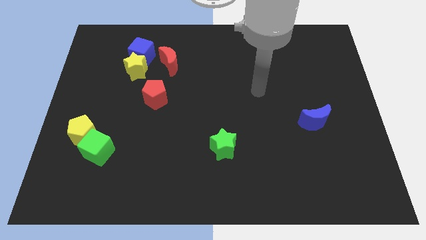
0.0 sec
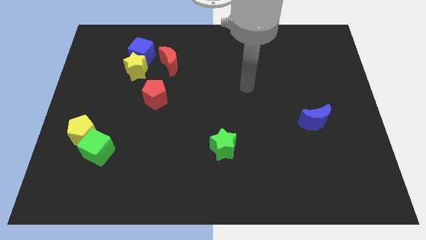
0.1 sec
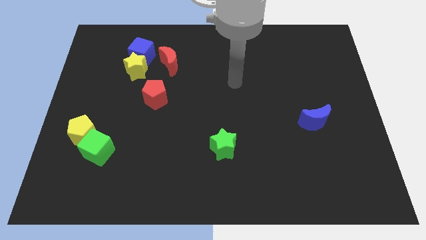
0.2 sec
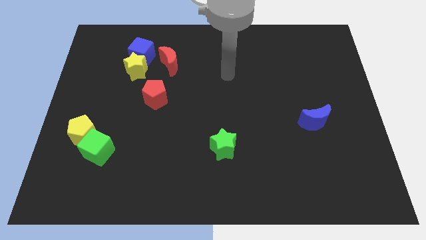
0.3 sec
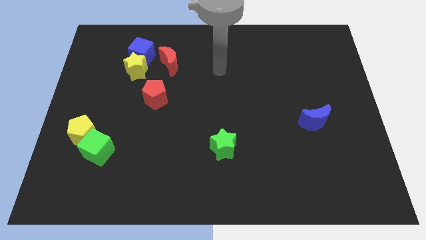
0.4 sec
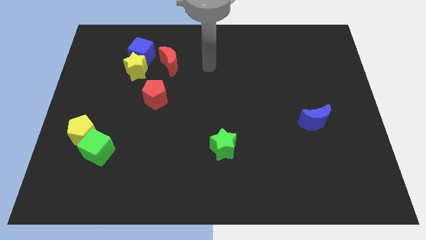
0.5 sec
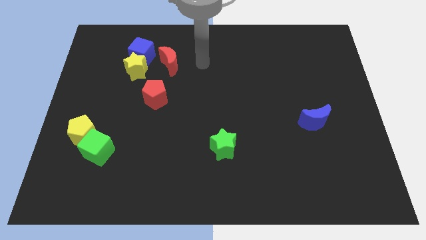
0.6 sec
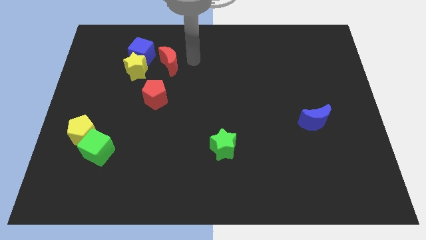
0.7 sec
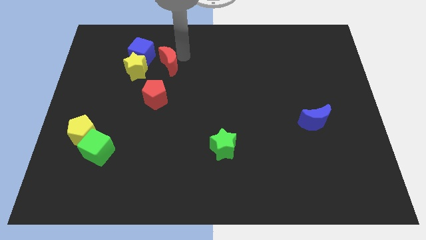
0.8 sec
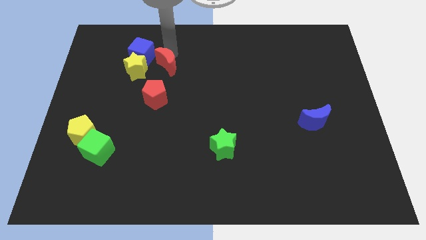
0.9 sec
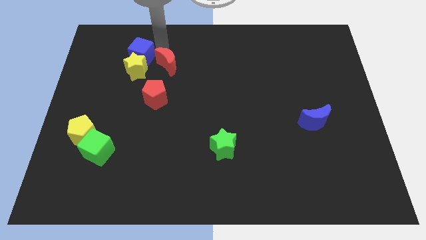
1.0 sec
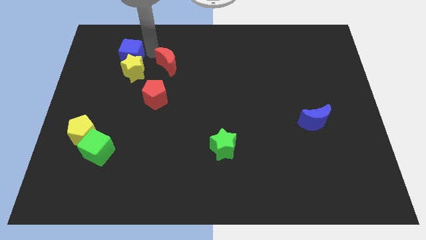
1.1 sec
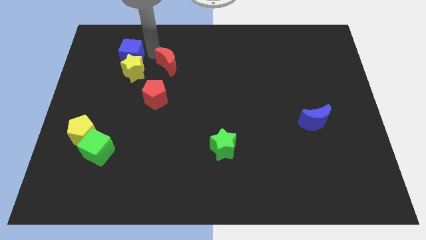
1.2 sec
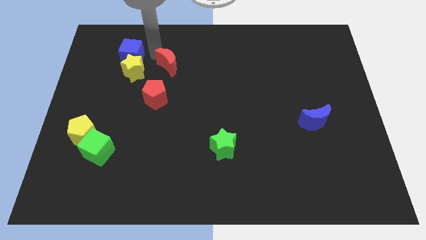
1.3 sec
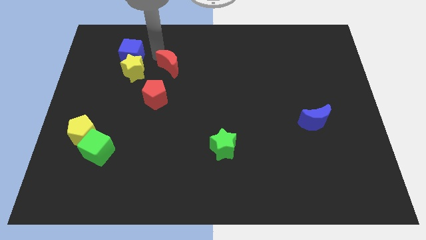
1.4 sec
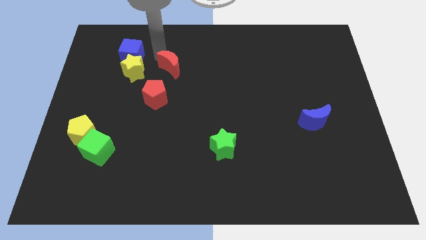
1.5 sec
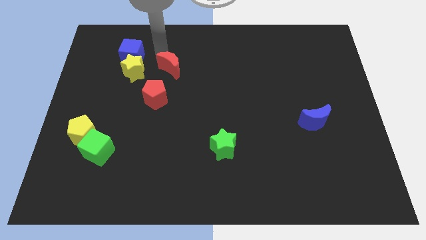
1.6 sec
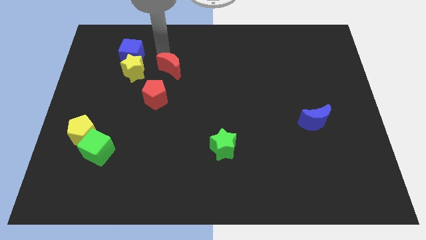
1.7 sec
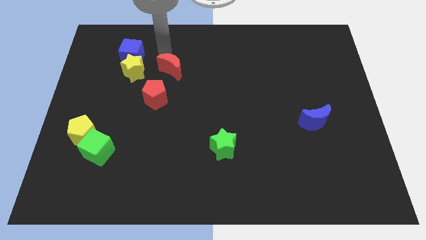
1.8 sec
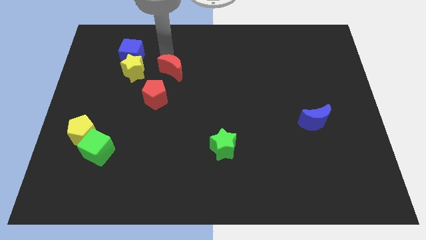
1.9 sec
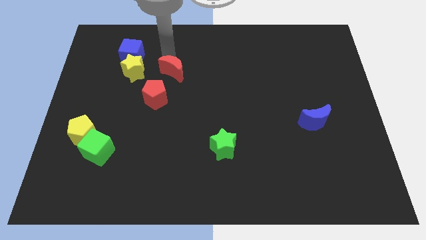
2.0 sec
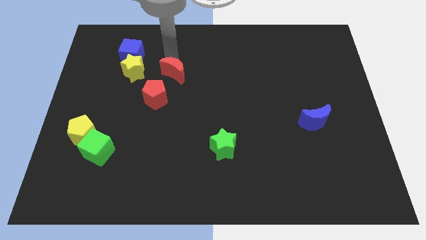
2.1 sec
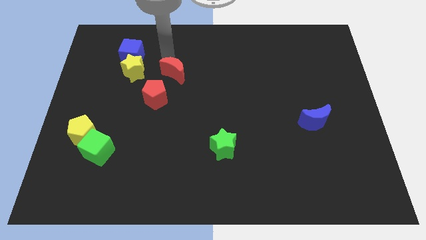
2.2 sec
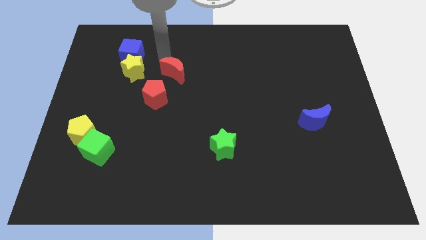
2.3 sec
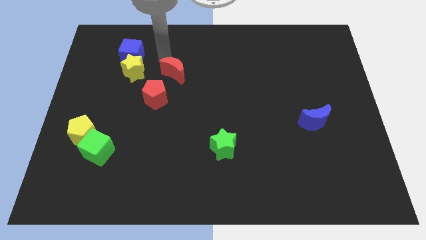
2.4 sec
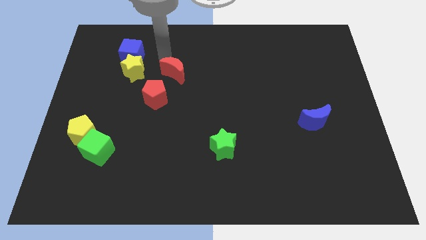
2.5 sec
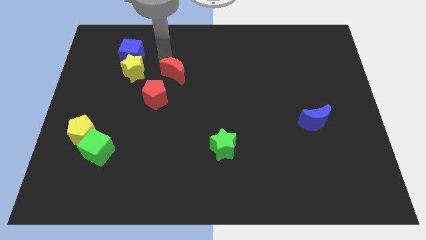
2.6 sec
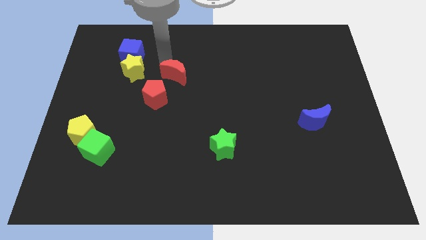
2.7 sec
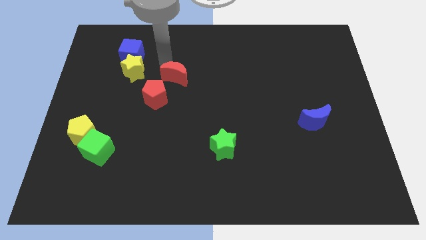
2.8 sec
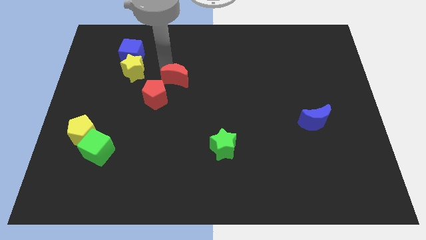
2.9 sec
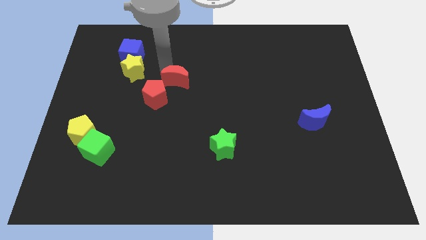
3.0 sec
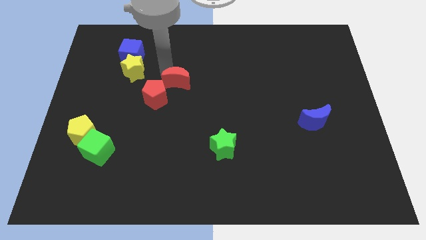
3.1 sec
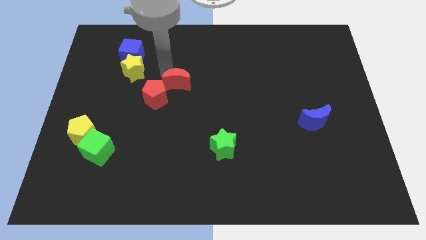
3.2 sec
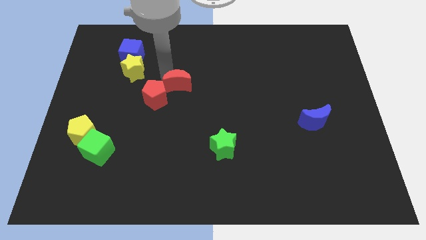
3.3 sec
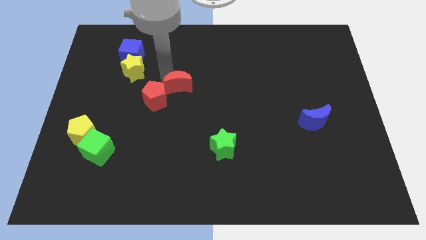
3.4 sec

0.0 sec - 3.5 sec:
slightly move the red moon downwards and then to the right

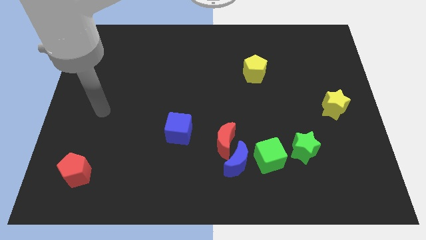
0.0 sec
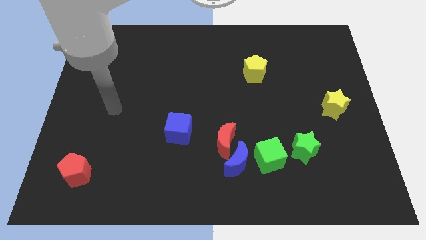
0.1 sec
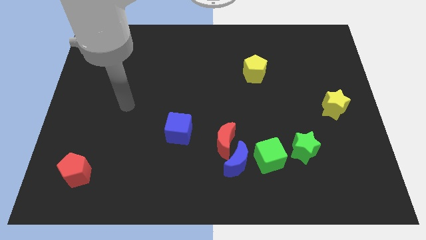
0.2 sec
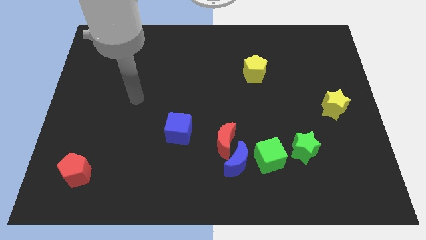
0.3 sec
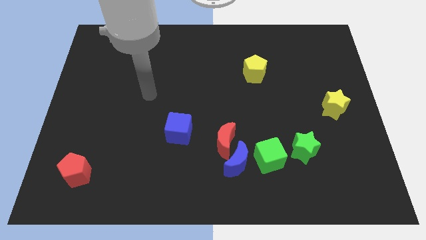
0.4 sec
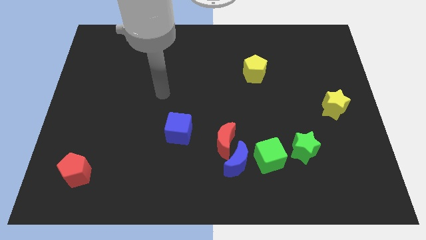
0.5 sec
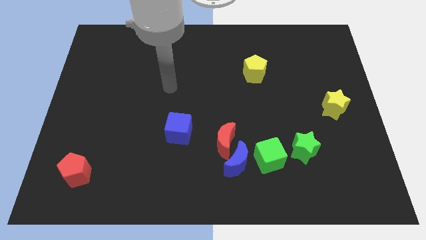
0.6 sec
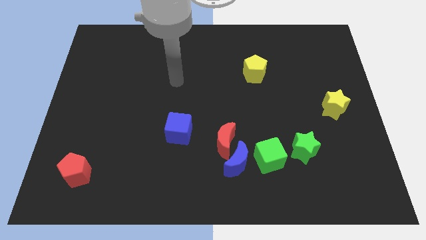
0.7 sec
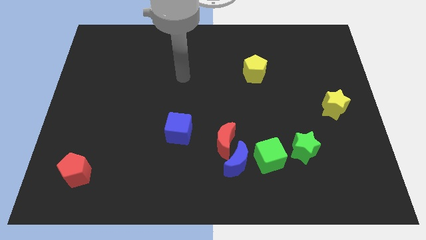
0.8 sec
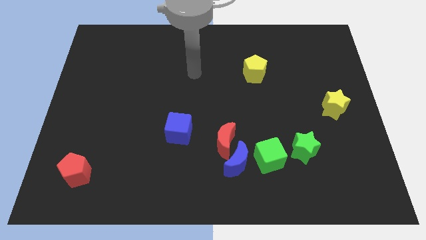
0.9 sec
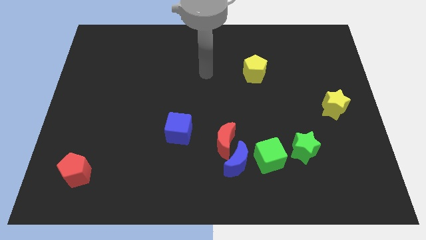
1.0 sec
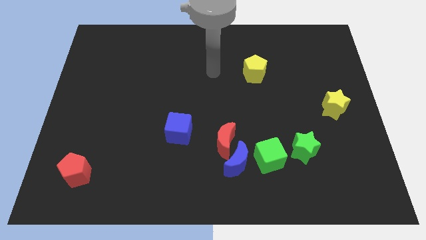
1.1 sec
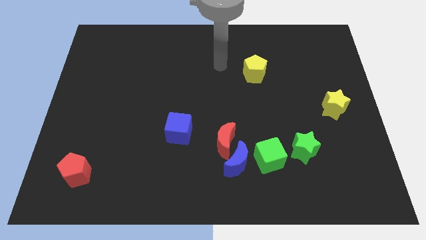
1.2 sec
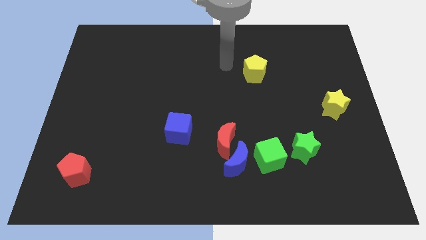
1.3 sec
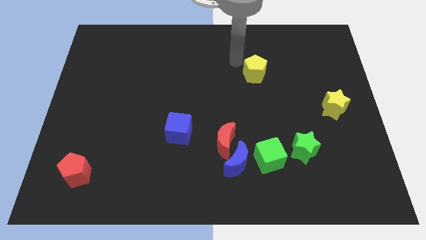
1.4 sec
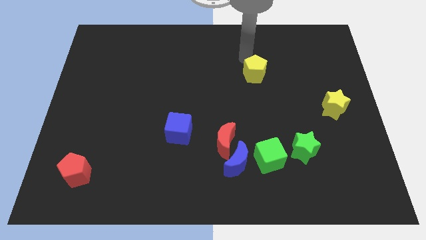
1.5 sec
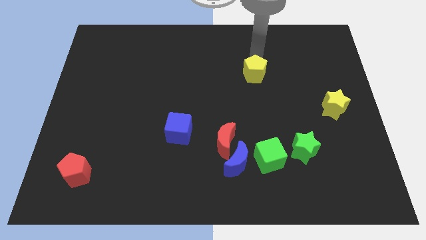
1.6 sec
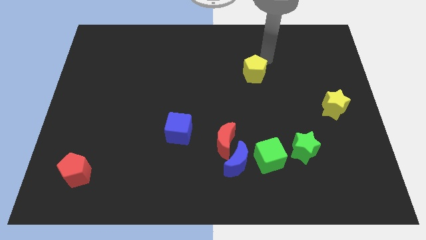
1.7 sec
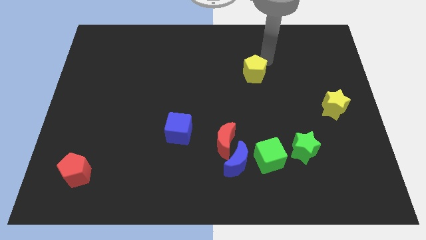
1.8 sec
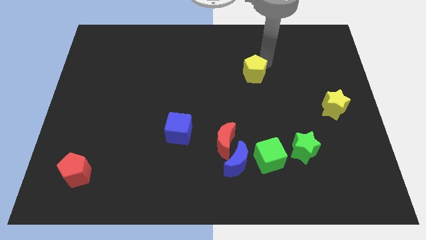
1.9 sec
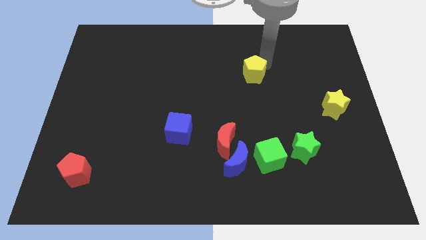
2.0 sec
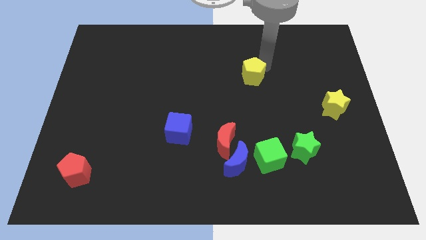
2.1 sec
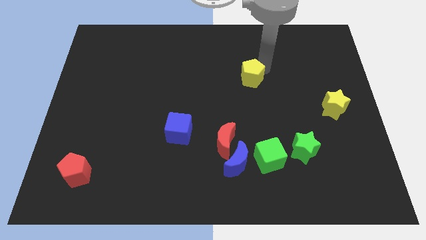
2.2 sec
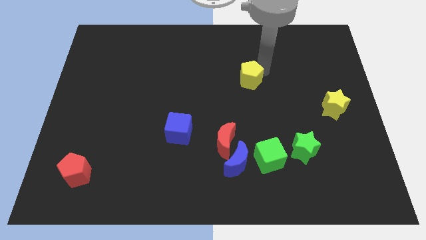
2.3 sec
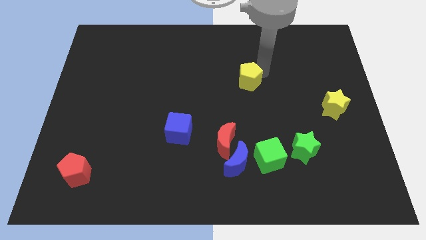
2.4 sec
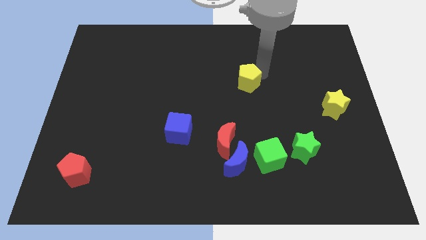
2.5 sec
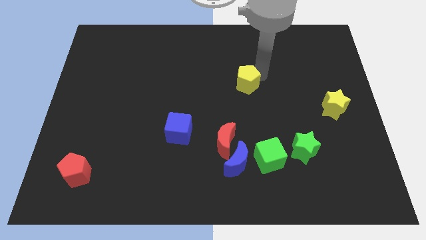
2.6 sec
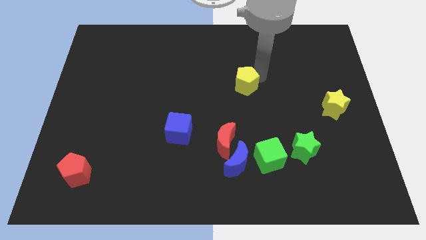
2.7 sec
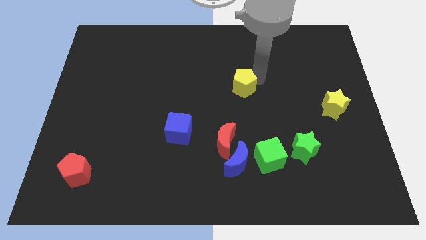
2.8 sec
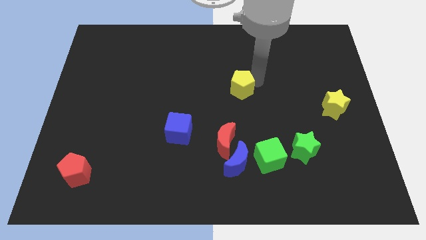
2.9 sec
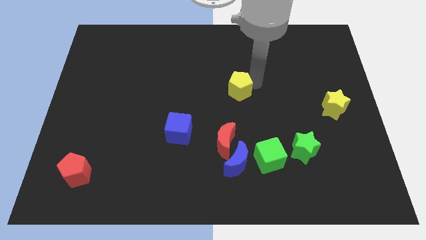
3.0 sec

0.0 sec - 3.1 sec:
push the yellow pentagon a little downwards and then left

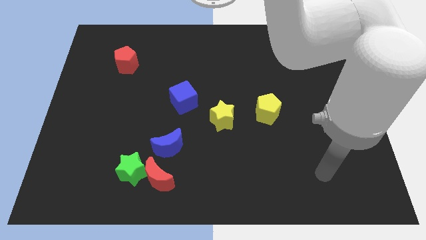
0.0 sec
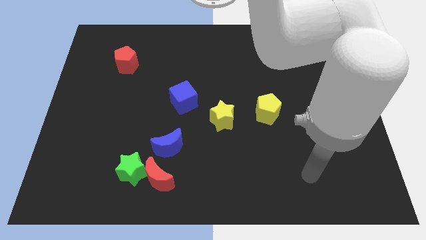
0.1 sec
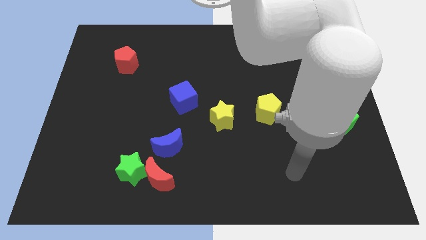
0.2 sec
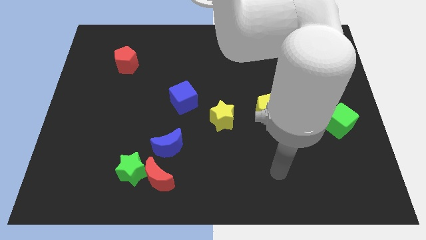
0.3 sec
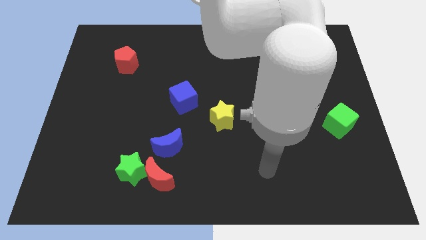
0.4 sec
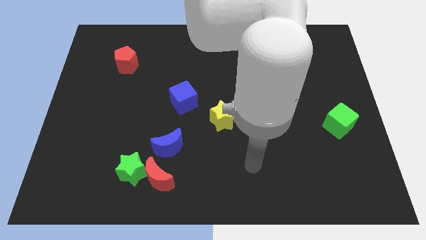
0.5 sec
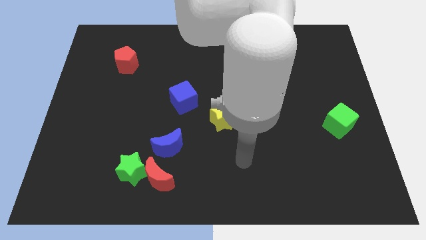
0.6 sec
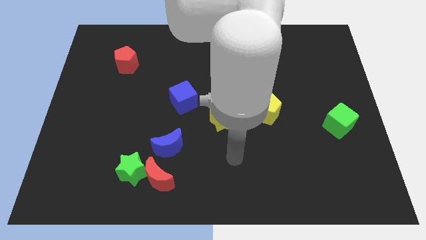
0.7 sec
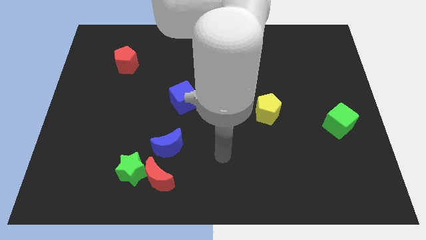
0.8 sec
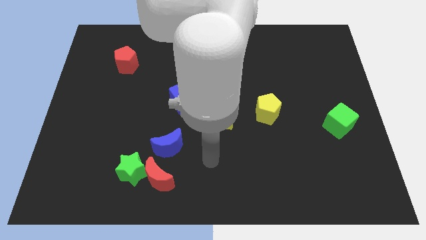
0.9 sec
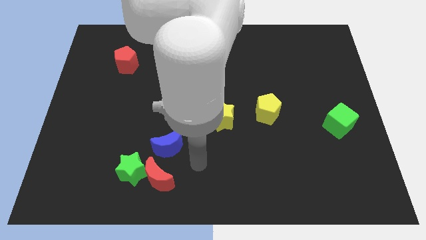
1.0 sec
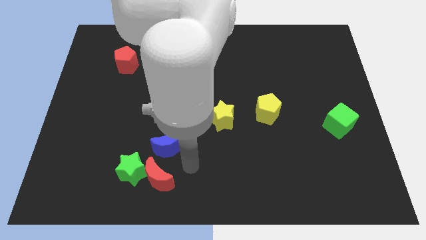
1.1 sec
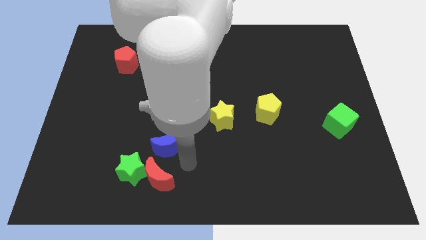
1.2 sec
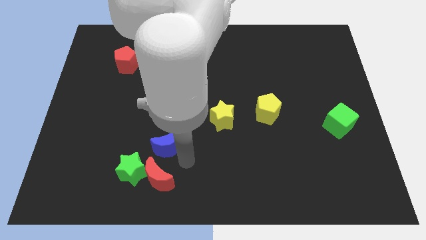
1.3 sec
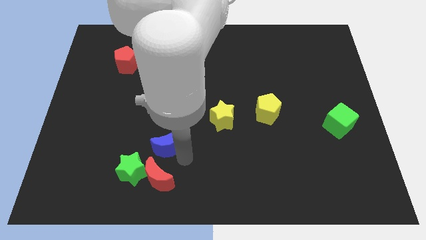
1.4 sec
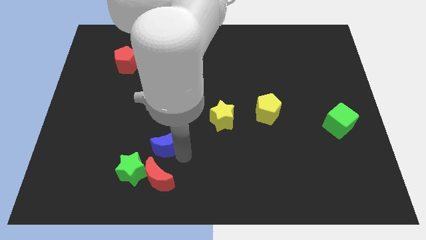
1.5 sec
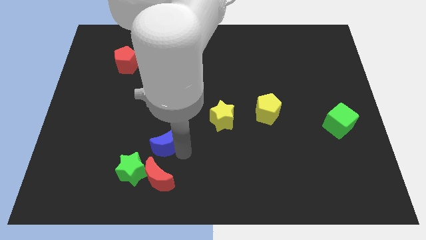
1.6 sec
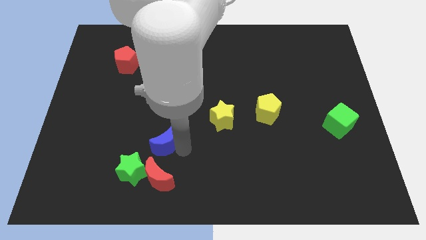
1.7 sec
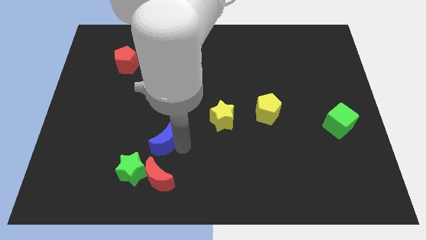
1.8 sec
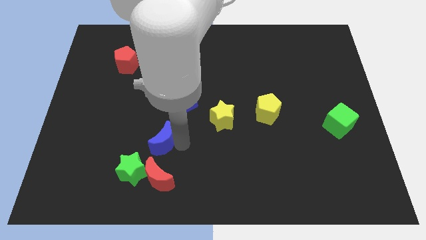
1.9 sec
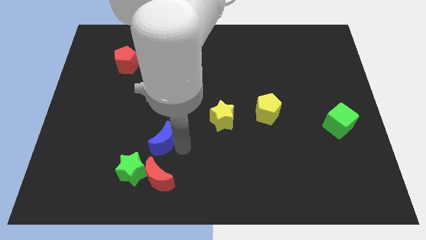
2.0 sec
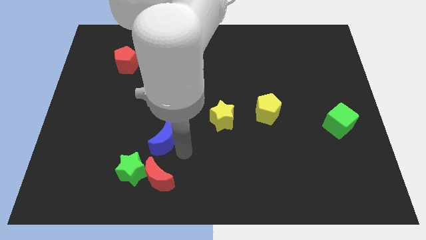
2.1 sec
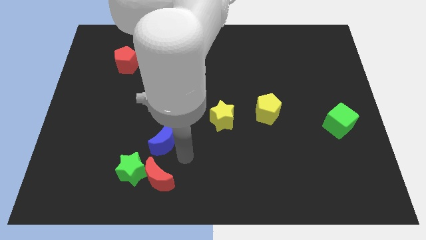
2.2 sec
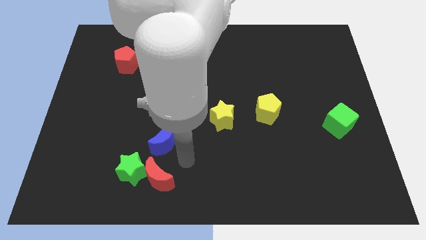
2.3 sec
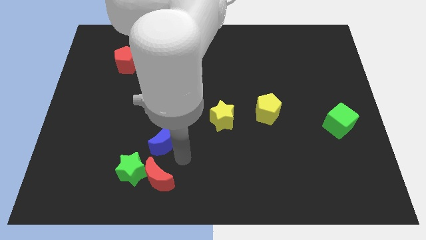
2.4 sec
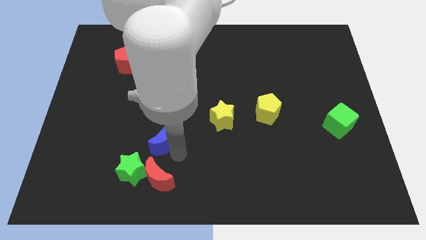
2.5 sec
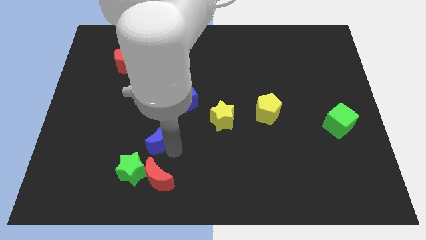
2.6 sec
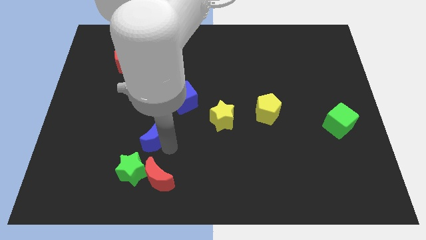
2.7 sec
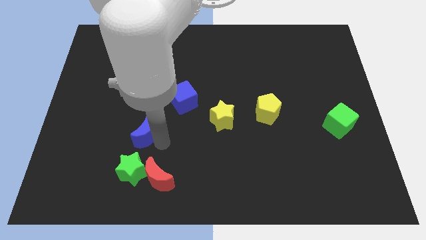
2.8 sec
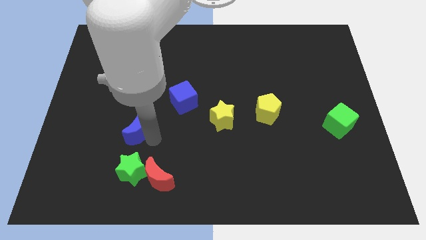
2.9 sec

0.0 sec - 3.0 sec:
move the blue moon up and left diagonally somewhat
